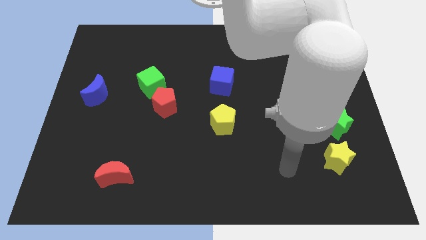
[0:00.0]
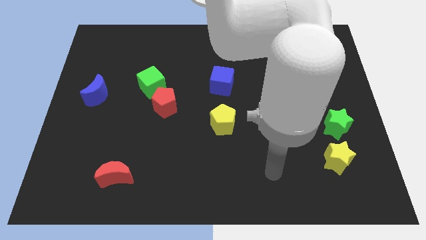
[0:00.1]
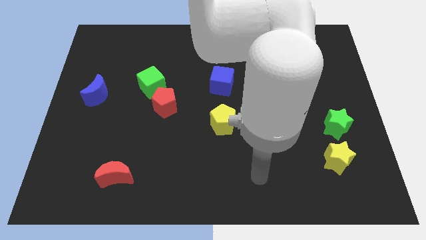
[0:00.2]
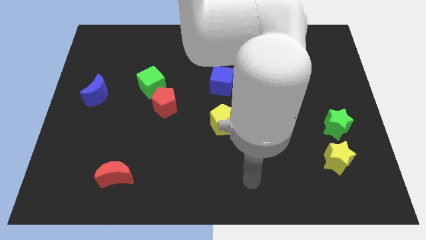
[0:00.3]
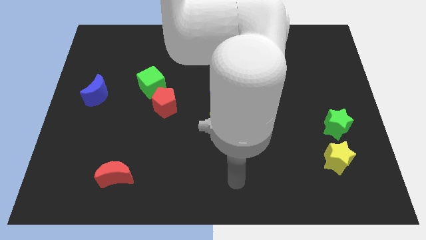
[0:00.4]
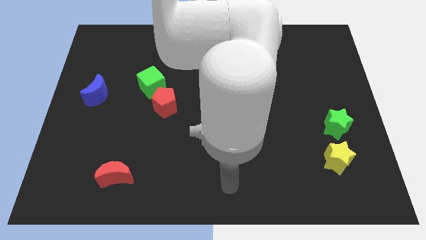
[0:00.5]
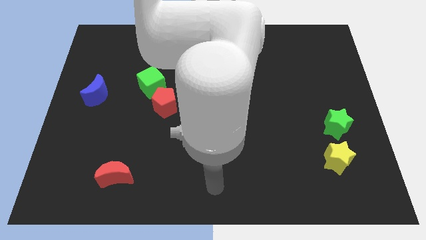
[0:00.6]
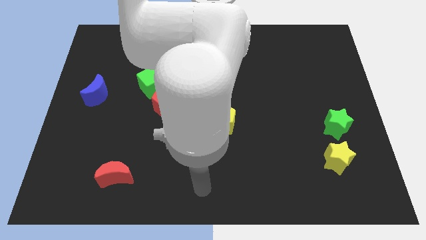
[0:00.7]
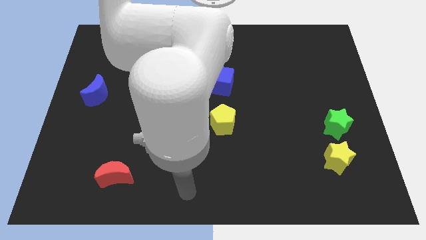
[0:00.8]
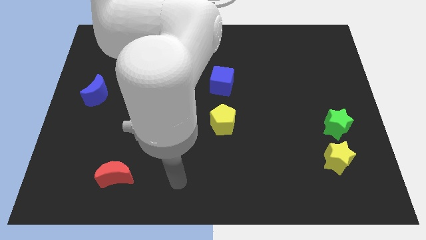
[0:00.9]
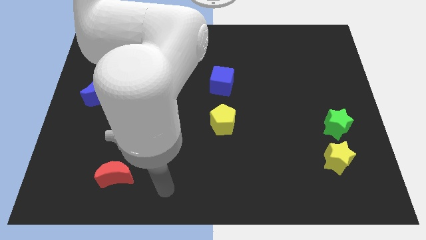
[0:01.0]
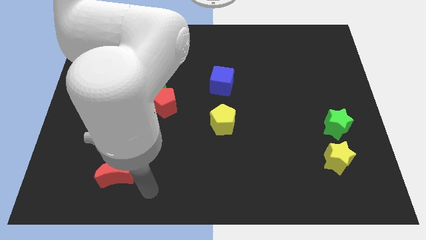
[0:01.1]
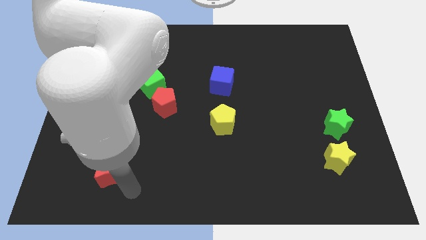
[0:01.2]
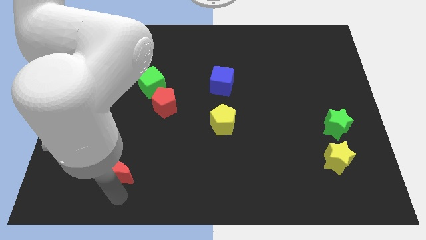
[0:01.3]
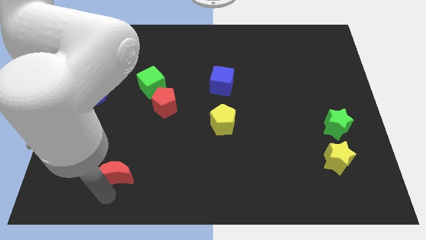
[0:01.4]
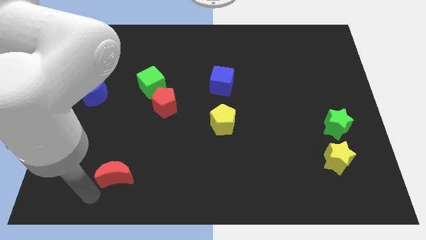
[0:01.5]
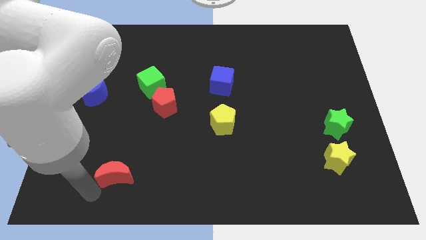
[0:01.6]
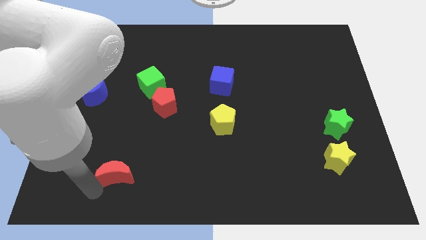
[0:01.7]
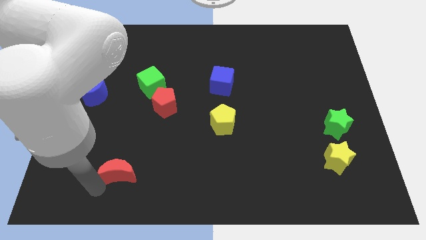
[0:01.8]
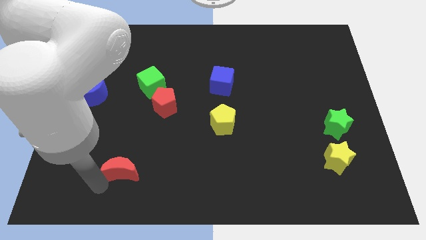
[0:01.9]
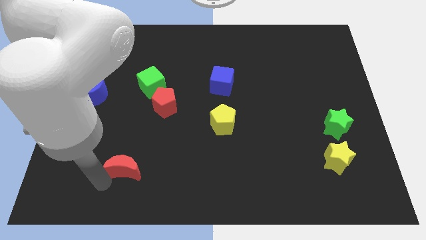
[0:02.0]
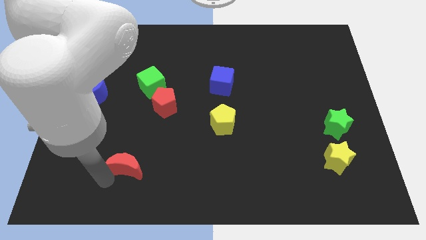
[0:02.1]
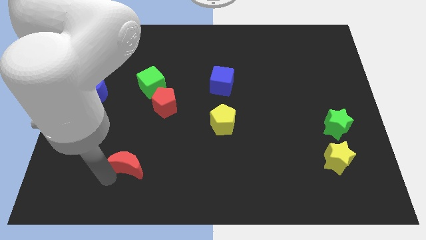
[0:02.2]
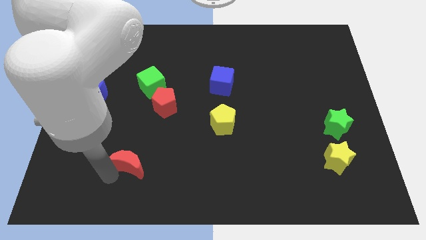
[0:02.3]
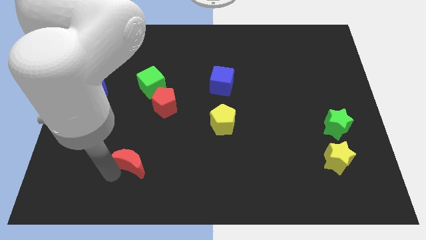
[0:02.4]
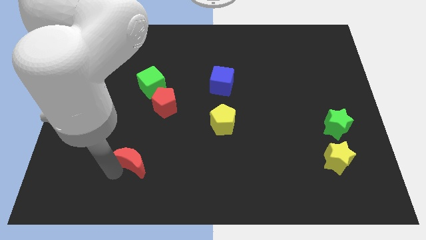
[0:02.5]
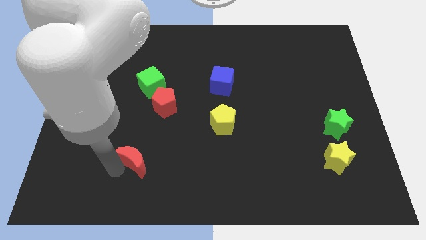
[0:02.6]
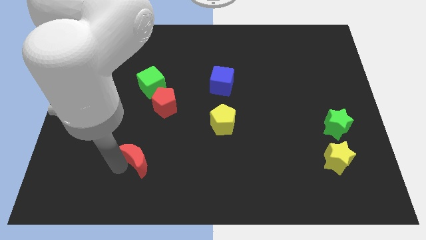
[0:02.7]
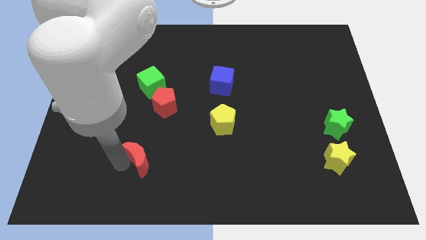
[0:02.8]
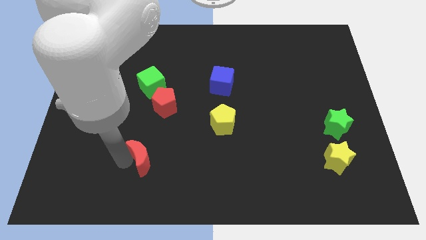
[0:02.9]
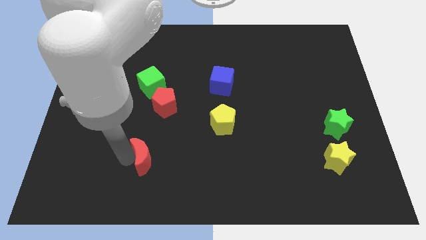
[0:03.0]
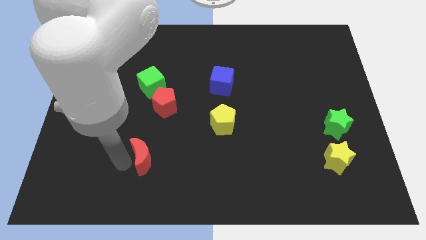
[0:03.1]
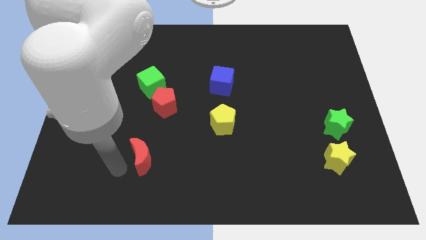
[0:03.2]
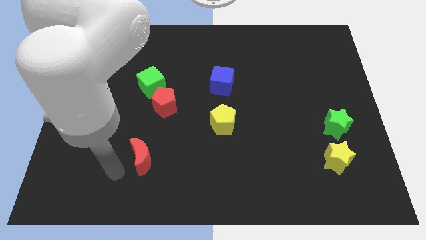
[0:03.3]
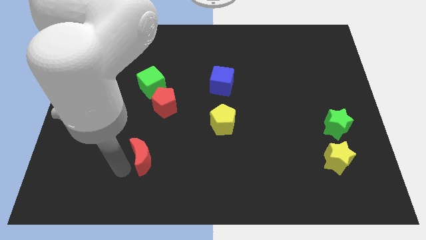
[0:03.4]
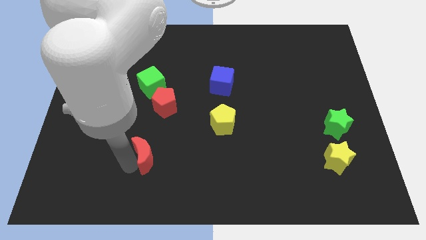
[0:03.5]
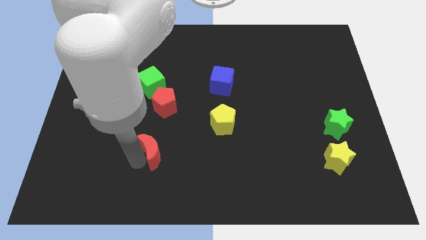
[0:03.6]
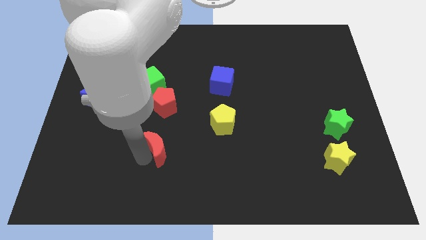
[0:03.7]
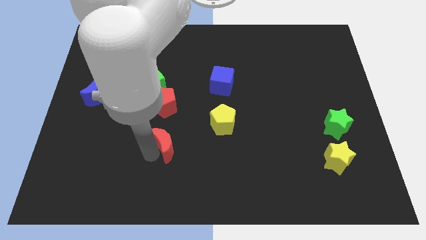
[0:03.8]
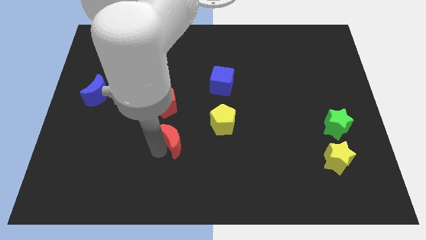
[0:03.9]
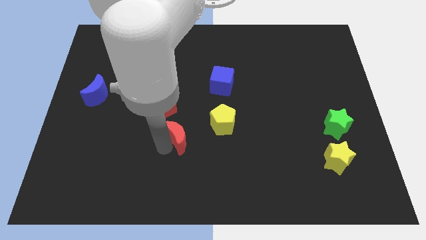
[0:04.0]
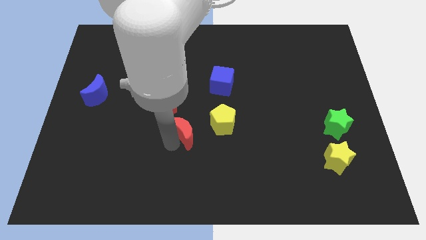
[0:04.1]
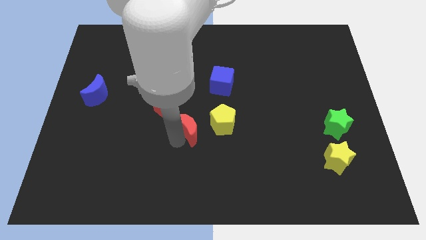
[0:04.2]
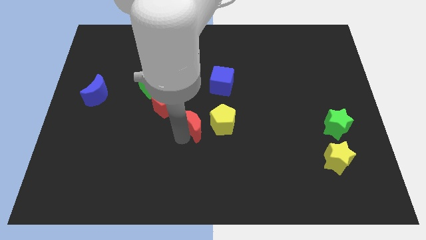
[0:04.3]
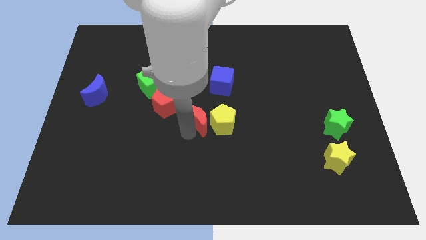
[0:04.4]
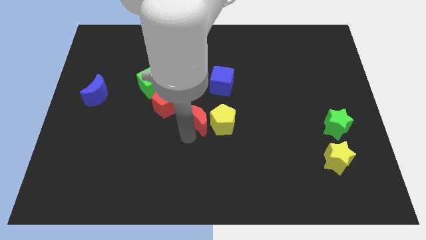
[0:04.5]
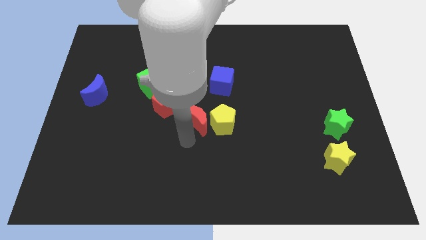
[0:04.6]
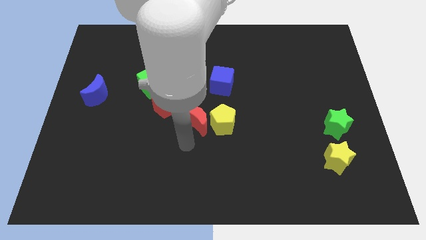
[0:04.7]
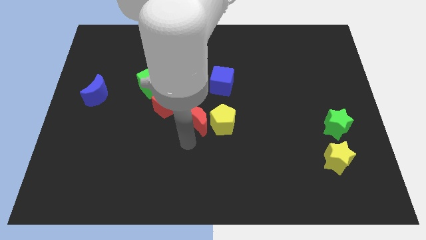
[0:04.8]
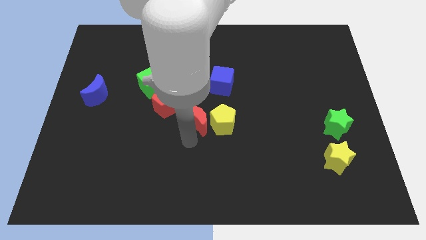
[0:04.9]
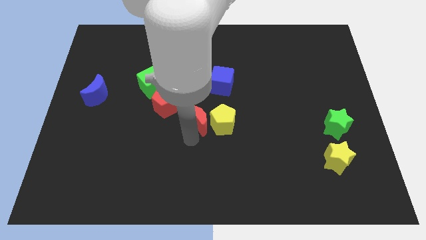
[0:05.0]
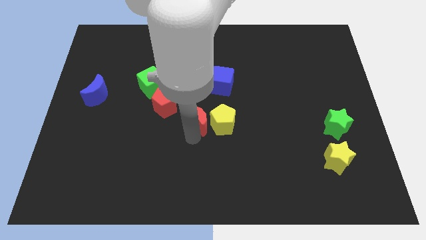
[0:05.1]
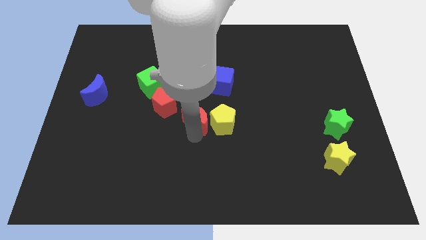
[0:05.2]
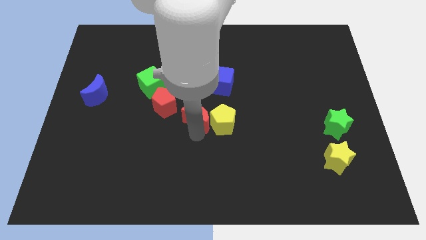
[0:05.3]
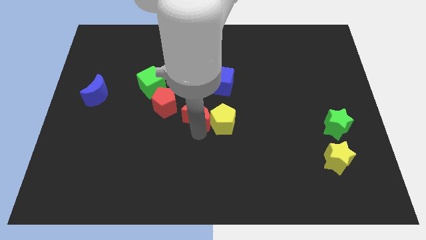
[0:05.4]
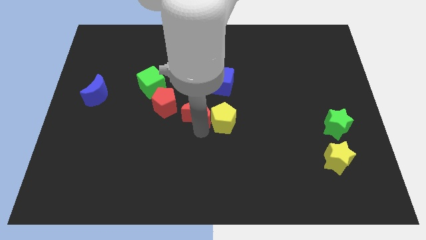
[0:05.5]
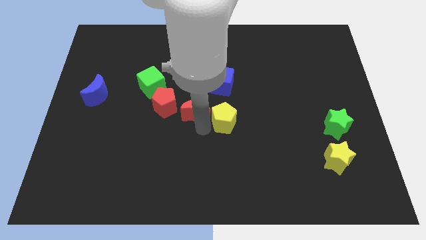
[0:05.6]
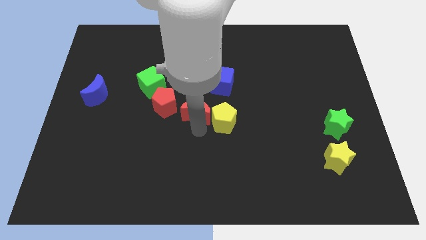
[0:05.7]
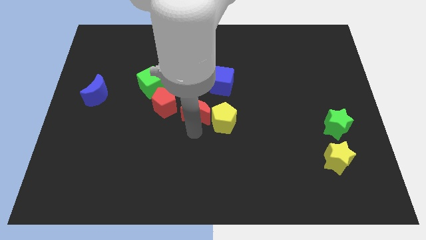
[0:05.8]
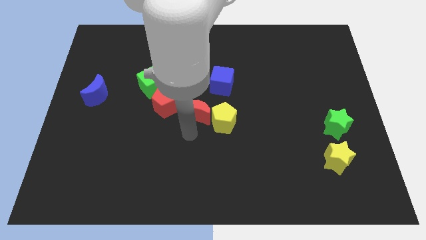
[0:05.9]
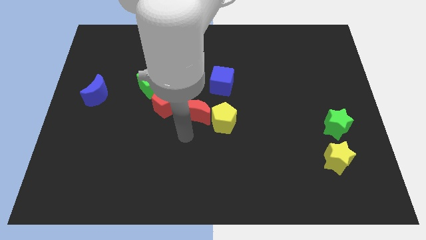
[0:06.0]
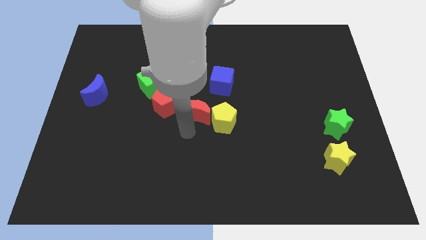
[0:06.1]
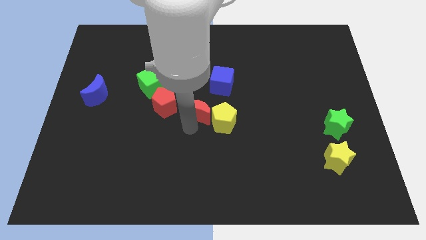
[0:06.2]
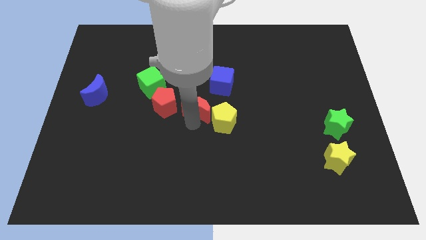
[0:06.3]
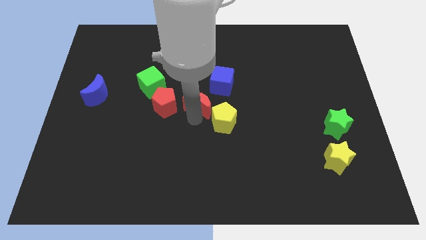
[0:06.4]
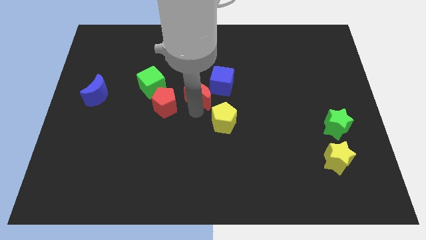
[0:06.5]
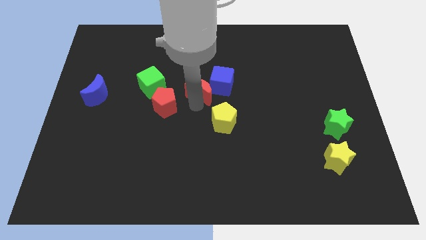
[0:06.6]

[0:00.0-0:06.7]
move the red moon to the blue cube
